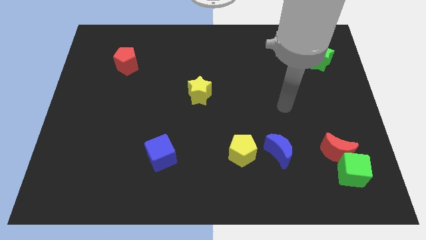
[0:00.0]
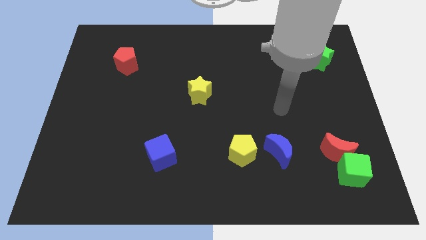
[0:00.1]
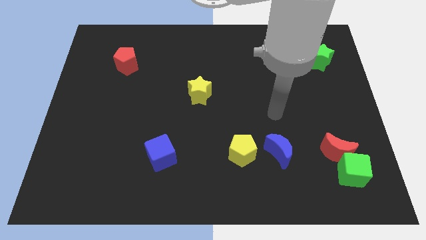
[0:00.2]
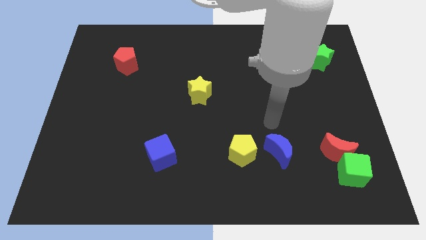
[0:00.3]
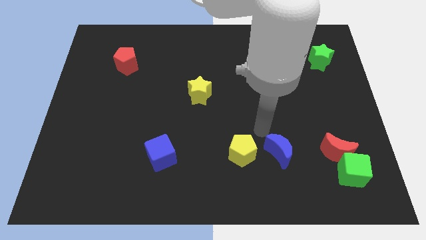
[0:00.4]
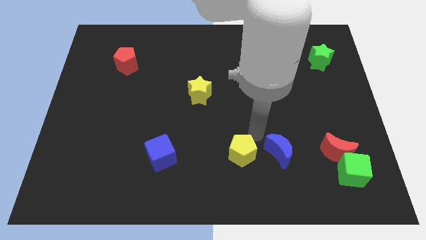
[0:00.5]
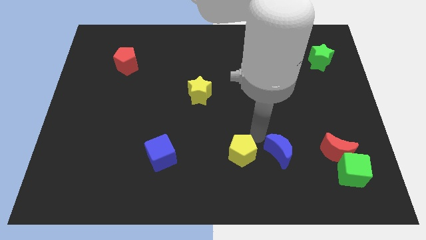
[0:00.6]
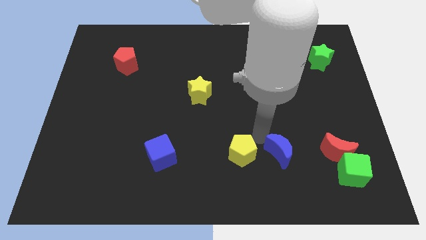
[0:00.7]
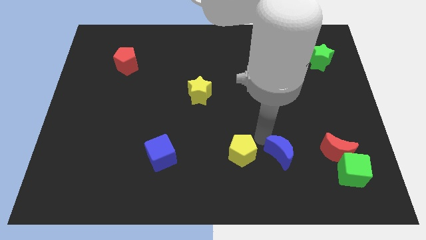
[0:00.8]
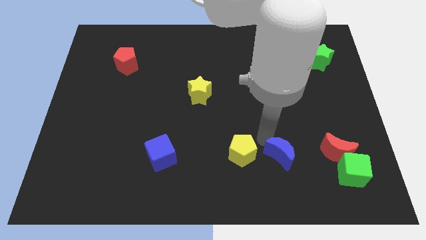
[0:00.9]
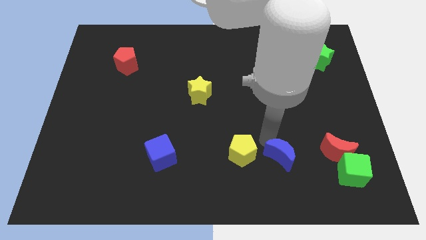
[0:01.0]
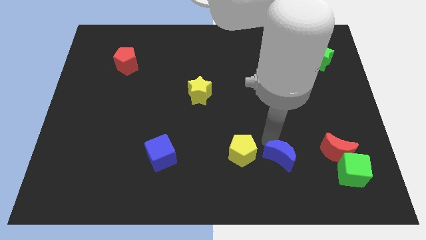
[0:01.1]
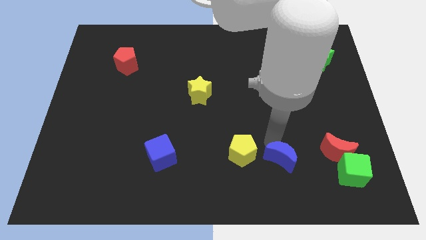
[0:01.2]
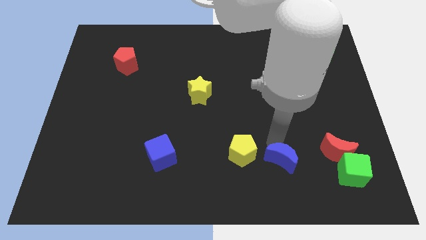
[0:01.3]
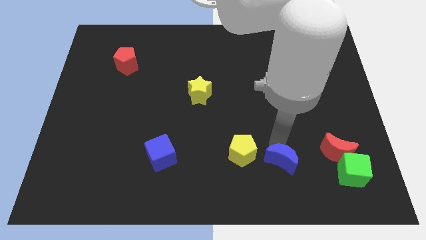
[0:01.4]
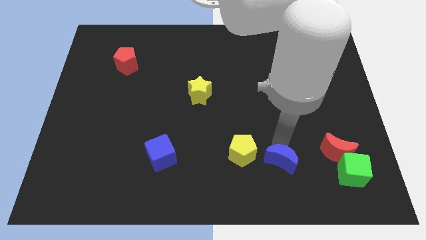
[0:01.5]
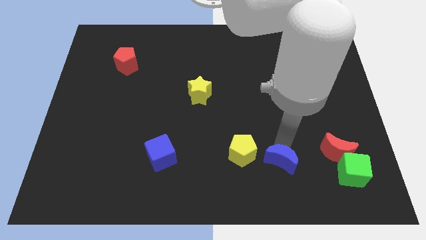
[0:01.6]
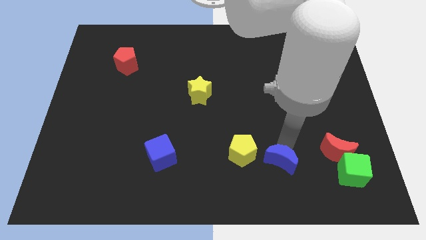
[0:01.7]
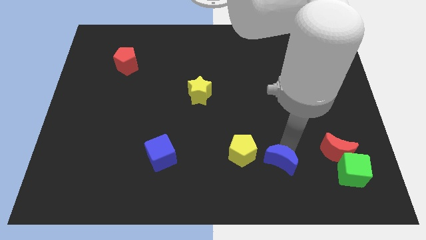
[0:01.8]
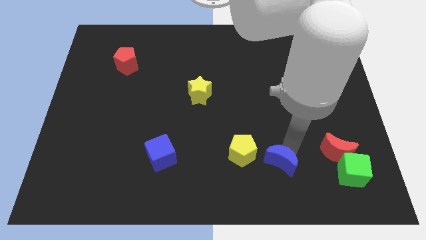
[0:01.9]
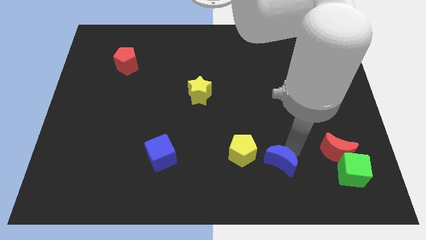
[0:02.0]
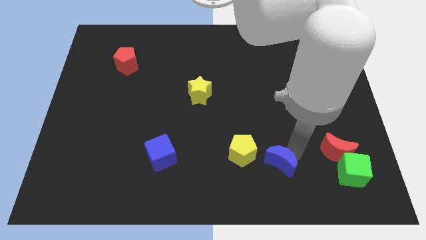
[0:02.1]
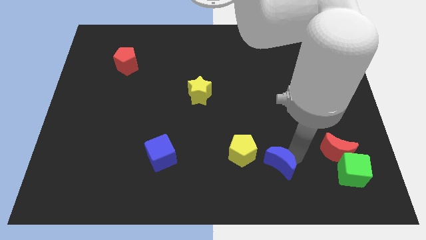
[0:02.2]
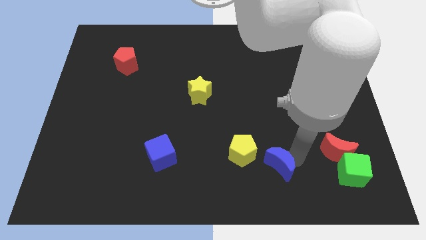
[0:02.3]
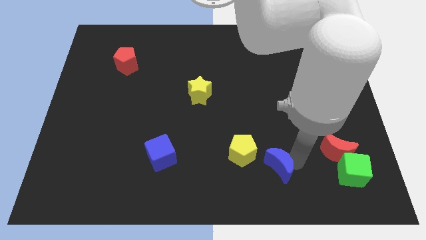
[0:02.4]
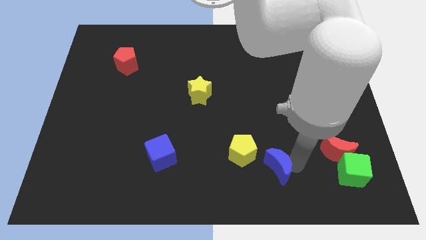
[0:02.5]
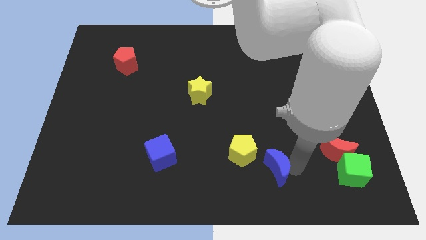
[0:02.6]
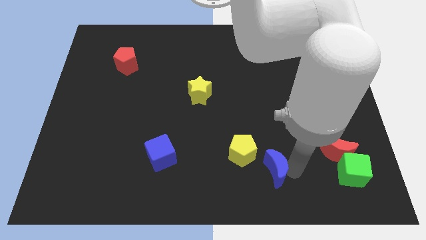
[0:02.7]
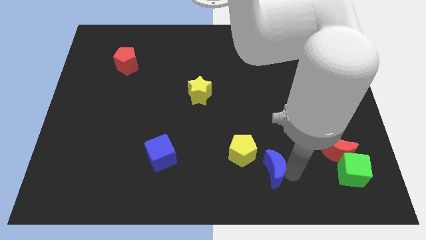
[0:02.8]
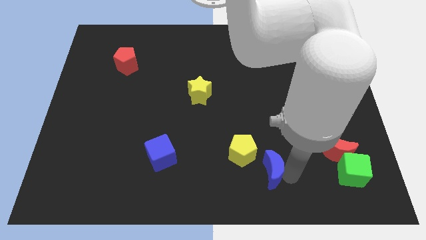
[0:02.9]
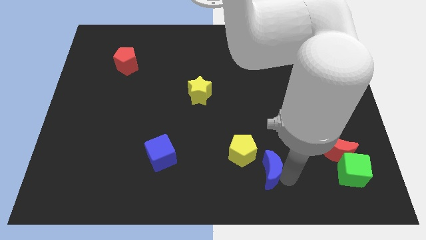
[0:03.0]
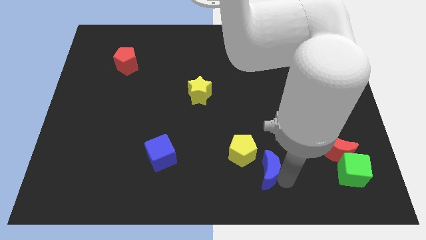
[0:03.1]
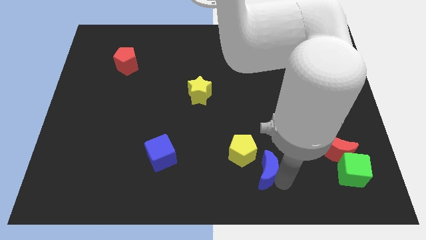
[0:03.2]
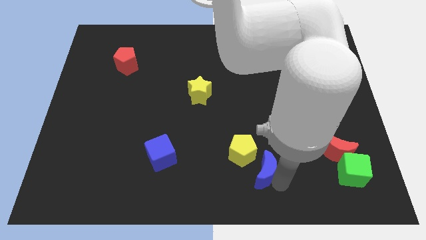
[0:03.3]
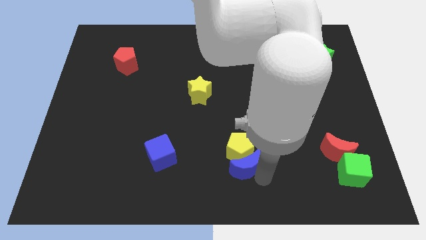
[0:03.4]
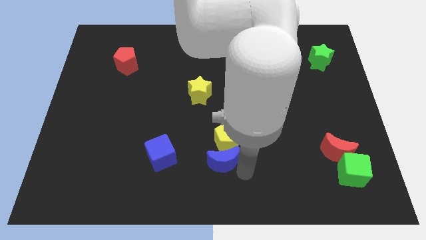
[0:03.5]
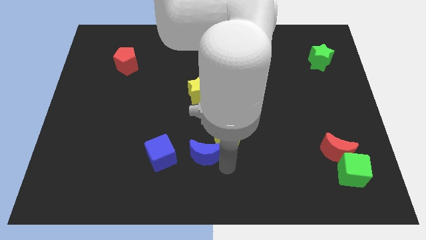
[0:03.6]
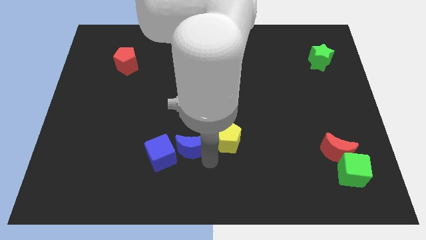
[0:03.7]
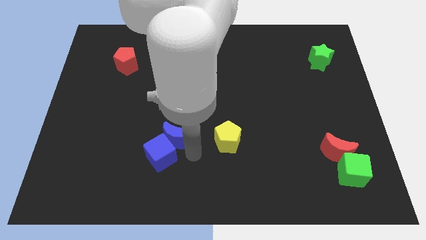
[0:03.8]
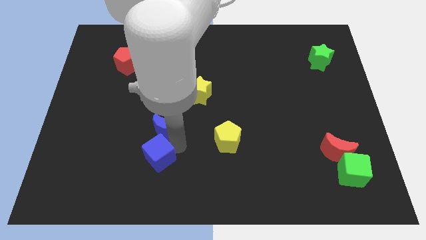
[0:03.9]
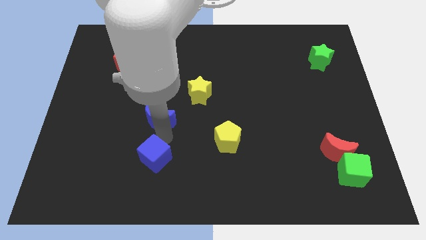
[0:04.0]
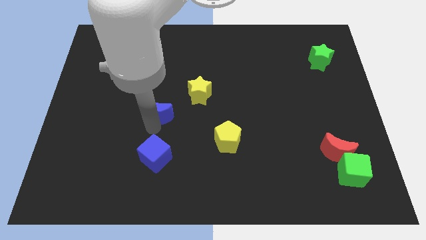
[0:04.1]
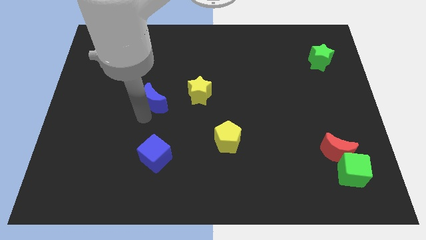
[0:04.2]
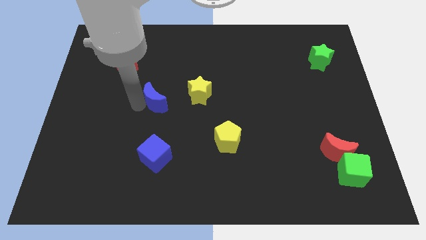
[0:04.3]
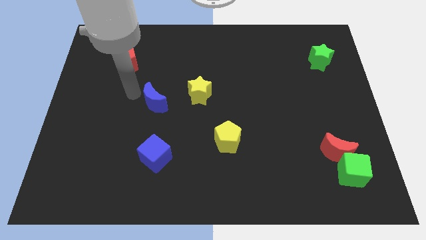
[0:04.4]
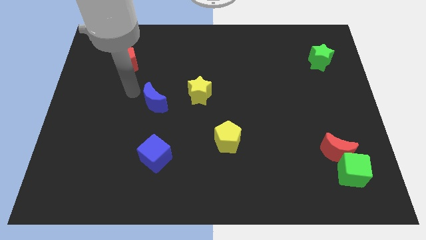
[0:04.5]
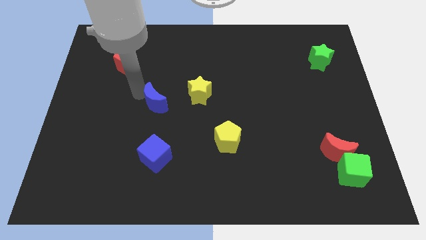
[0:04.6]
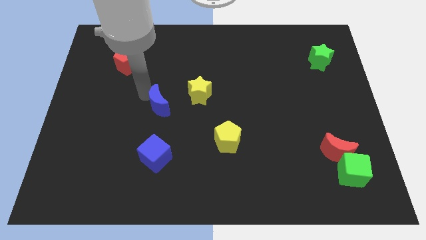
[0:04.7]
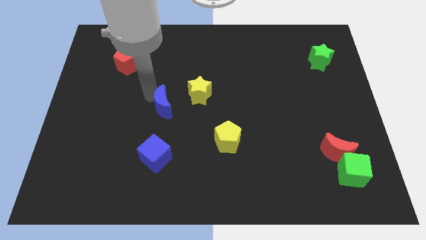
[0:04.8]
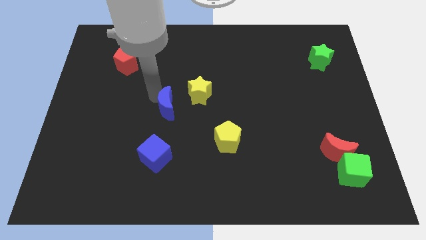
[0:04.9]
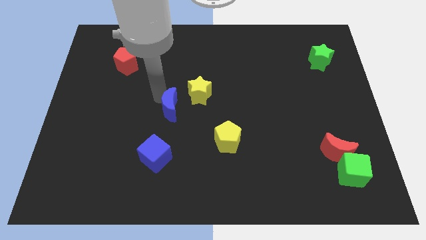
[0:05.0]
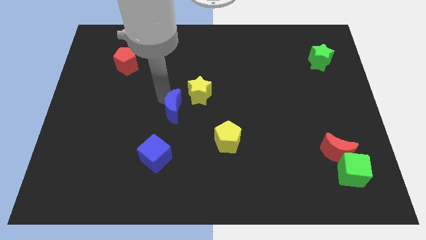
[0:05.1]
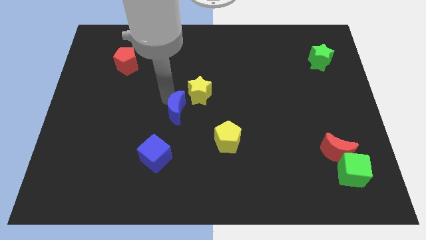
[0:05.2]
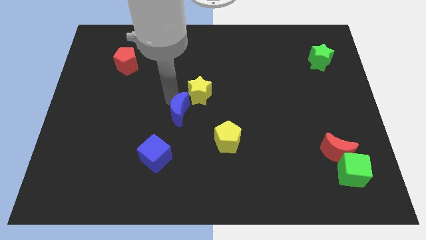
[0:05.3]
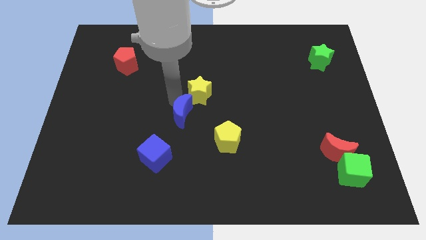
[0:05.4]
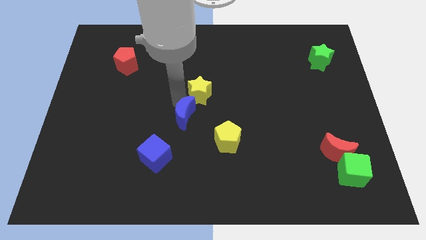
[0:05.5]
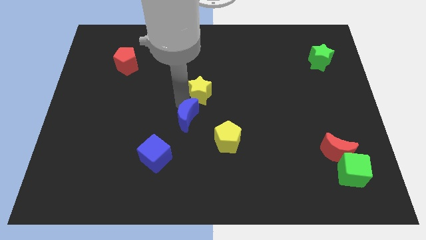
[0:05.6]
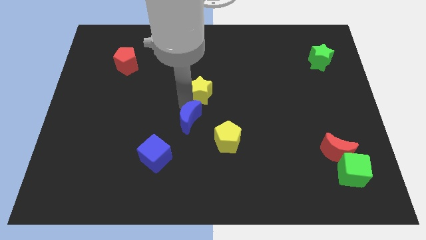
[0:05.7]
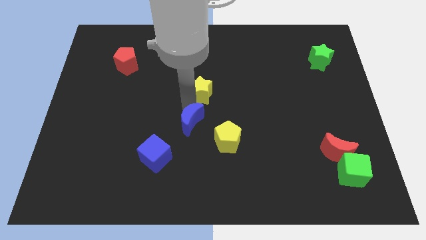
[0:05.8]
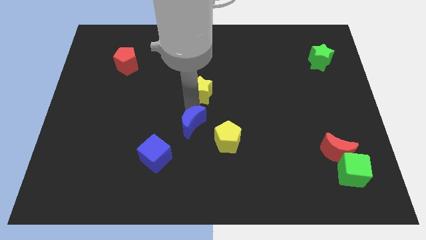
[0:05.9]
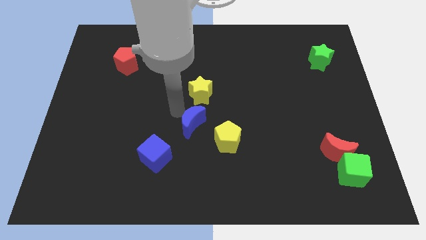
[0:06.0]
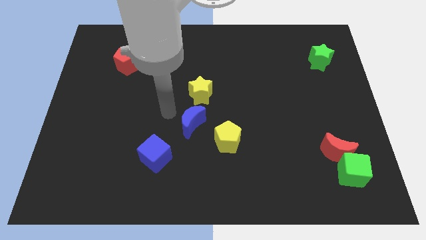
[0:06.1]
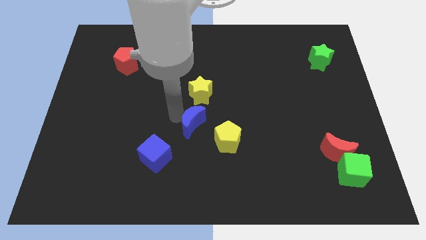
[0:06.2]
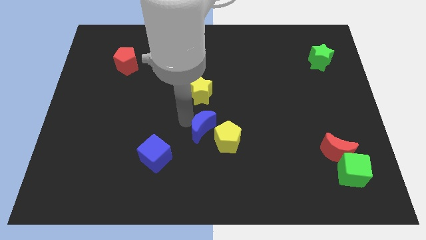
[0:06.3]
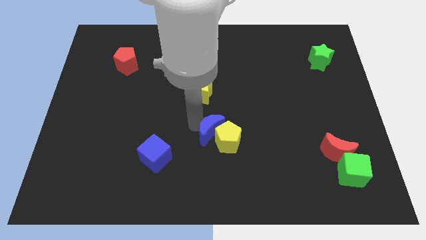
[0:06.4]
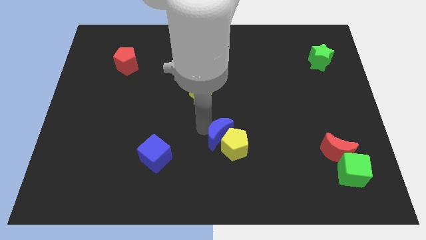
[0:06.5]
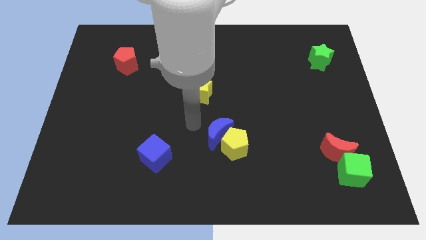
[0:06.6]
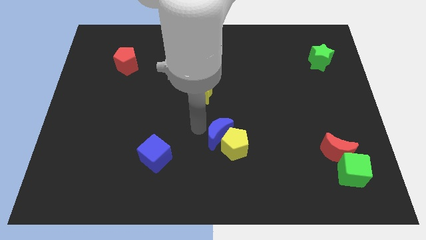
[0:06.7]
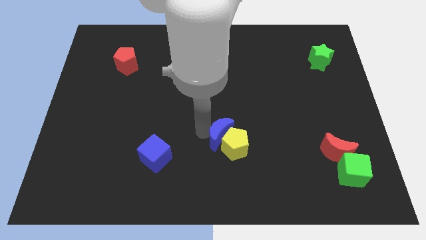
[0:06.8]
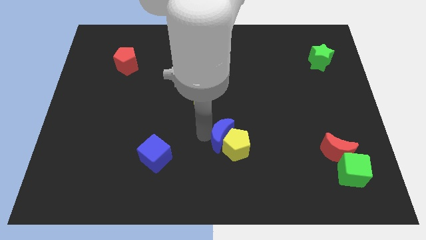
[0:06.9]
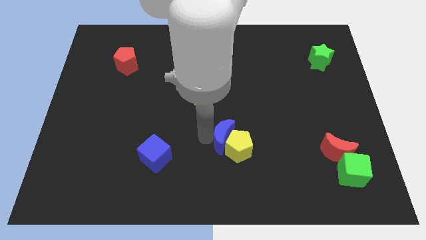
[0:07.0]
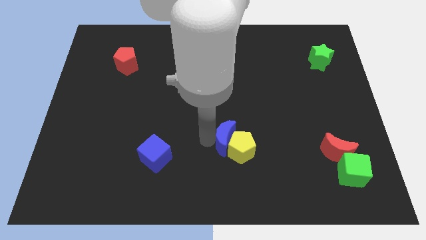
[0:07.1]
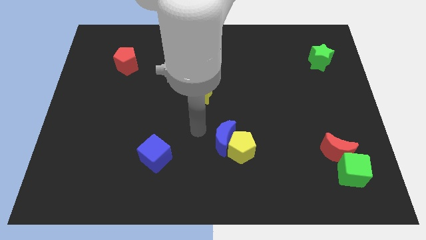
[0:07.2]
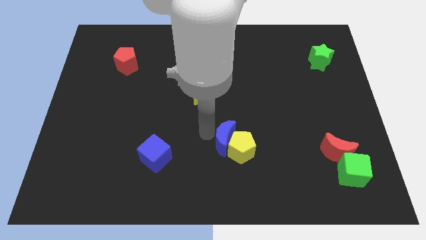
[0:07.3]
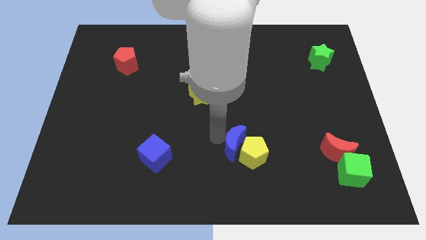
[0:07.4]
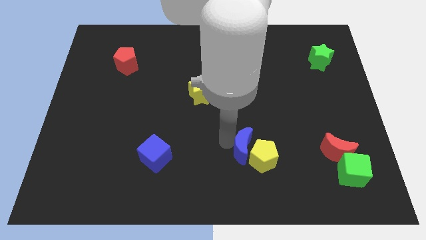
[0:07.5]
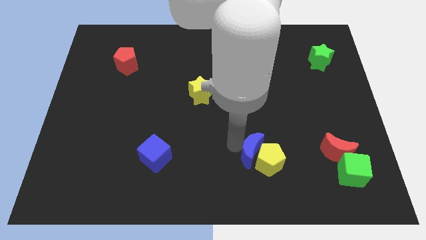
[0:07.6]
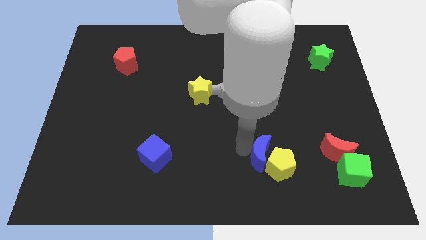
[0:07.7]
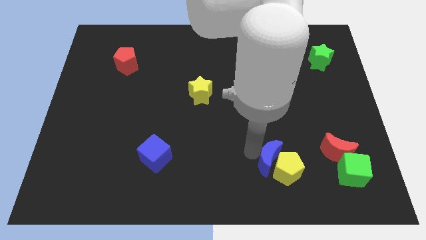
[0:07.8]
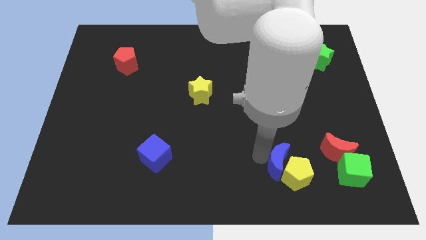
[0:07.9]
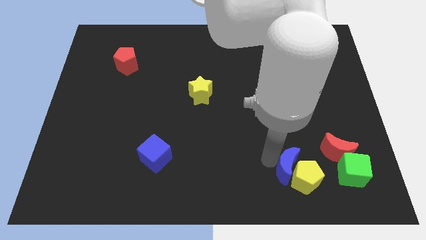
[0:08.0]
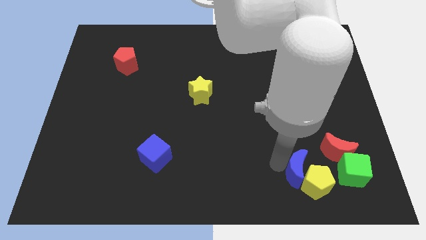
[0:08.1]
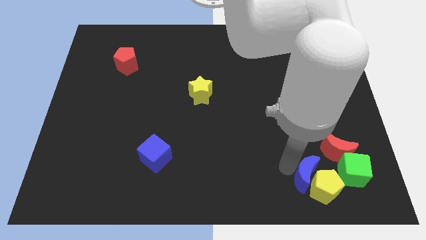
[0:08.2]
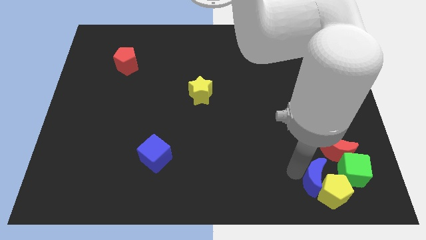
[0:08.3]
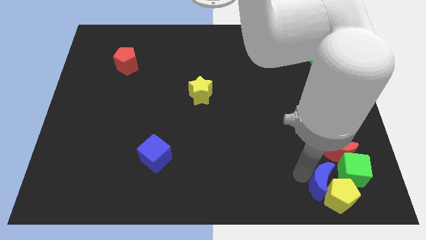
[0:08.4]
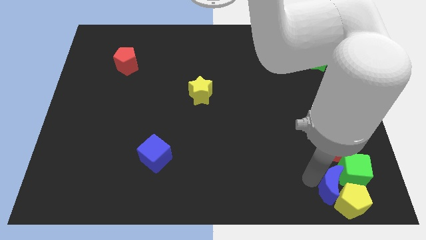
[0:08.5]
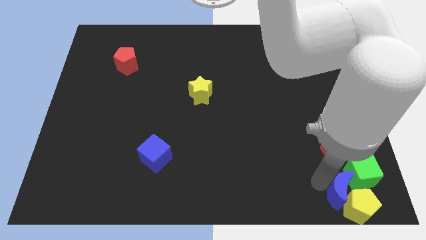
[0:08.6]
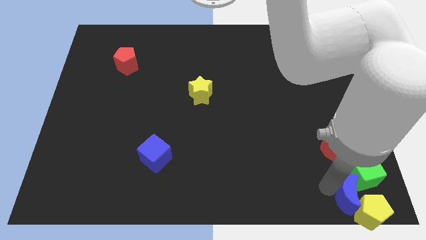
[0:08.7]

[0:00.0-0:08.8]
put the blue moon to the bottom right
